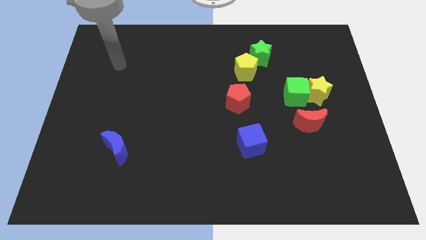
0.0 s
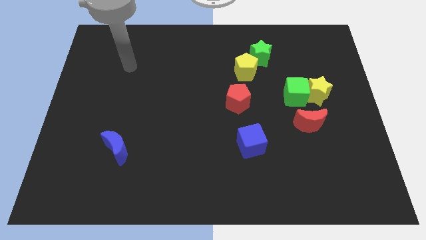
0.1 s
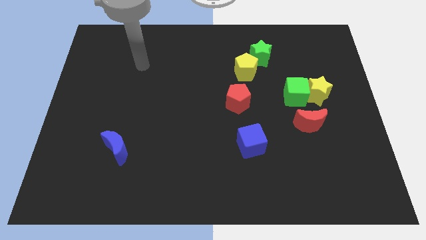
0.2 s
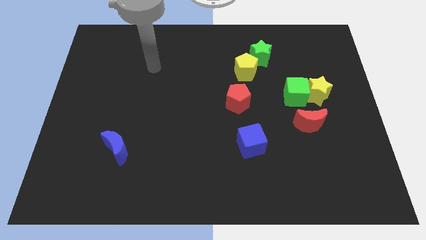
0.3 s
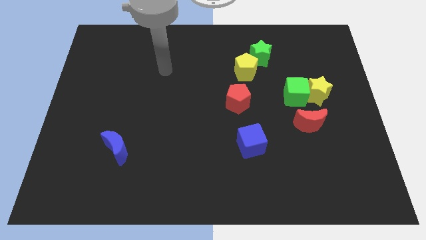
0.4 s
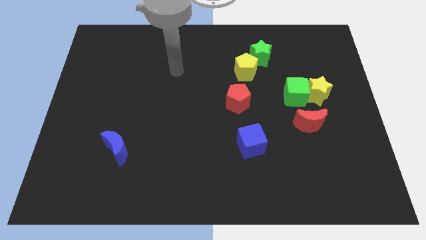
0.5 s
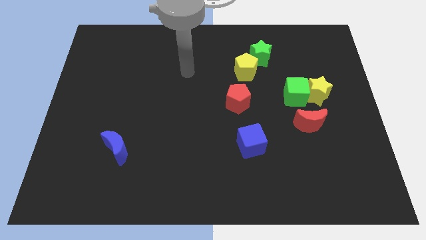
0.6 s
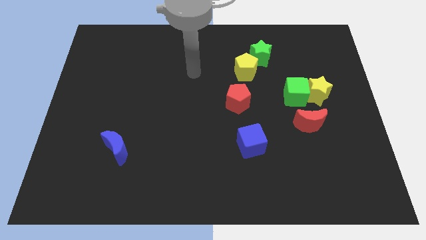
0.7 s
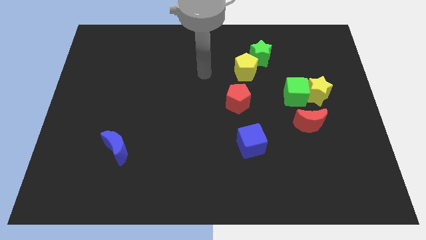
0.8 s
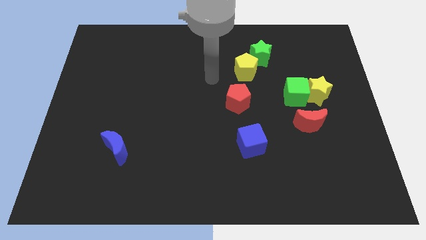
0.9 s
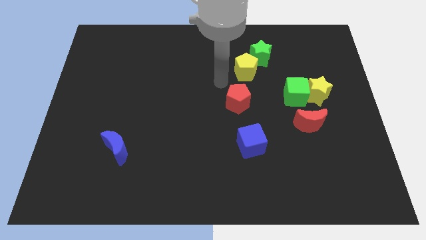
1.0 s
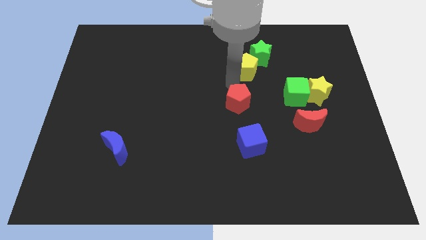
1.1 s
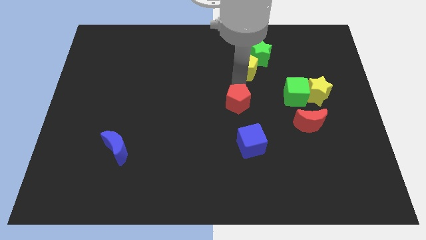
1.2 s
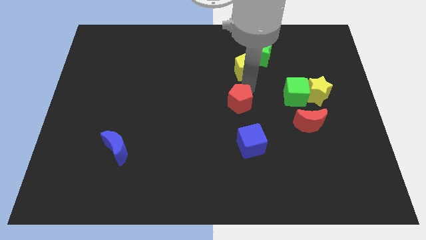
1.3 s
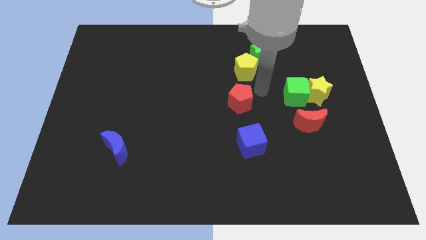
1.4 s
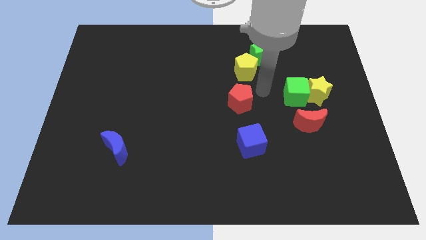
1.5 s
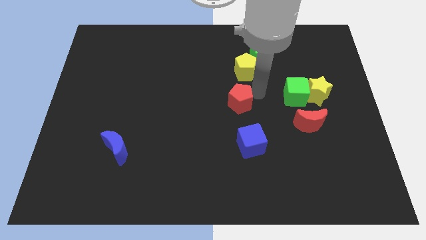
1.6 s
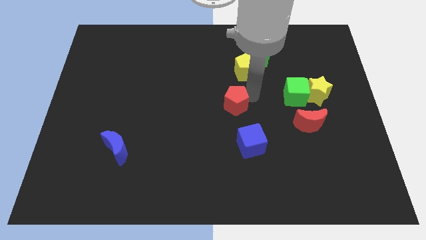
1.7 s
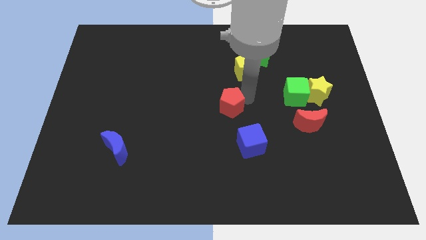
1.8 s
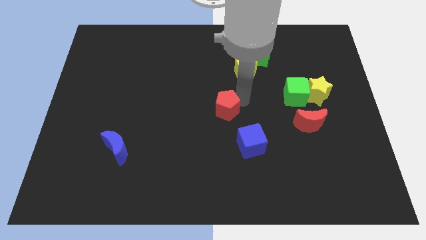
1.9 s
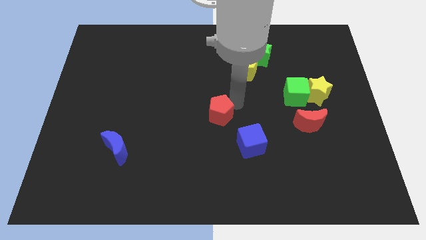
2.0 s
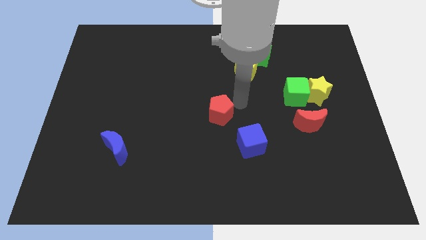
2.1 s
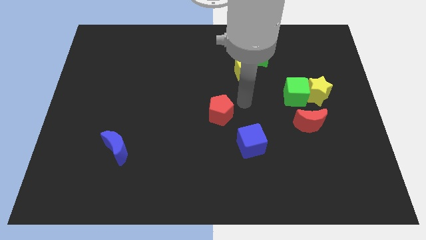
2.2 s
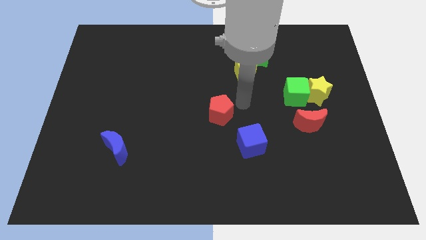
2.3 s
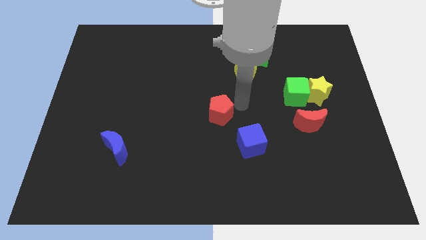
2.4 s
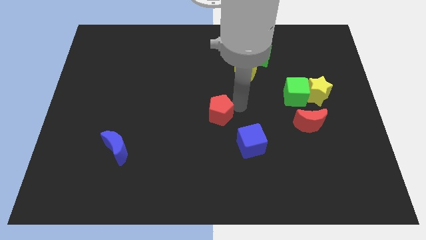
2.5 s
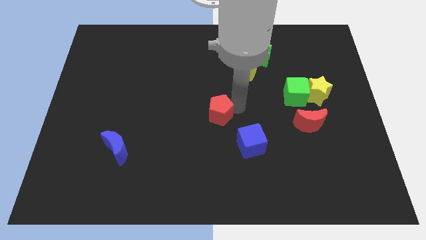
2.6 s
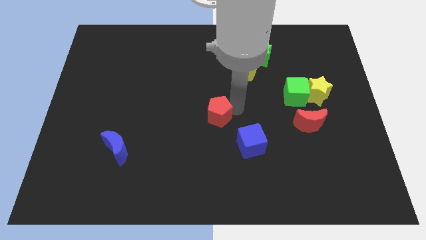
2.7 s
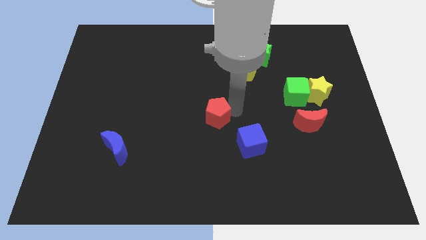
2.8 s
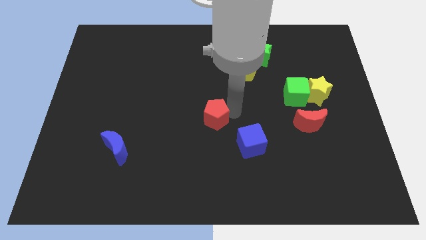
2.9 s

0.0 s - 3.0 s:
move the red pentagon a bit down and left diagonally

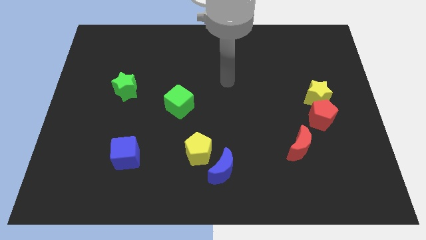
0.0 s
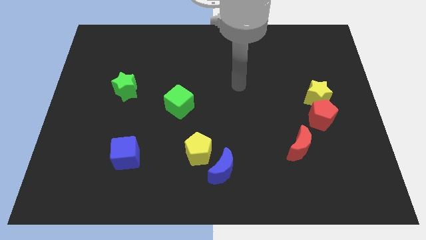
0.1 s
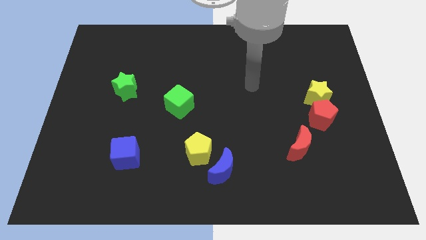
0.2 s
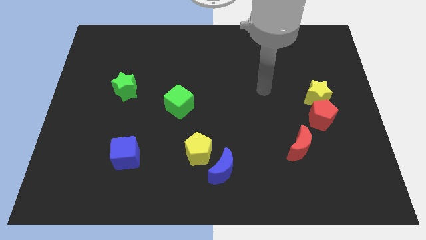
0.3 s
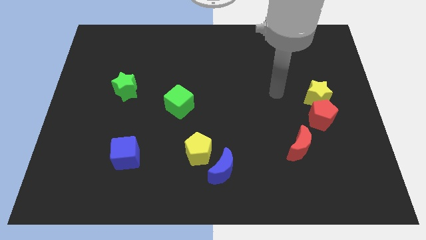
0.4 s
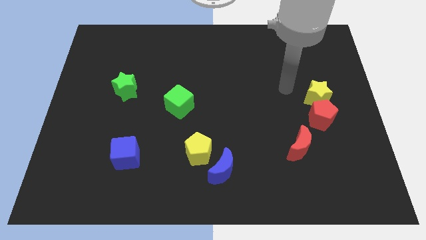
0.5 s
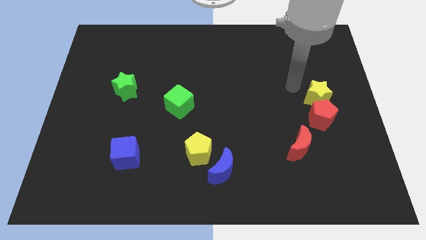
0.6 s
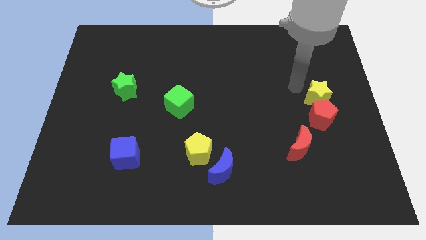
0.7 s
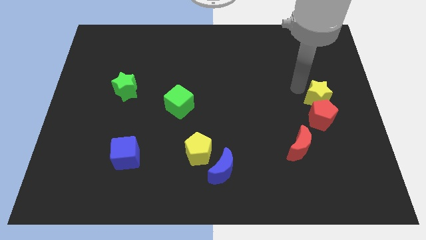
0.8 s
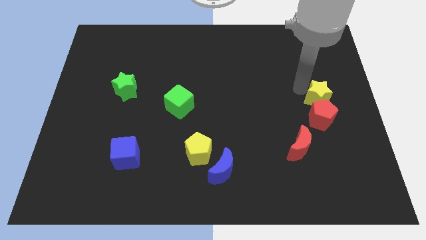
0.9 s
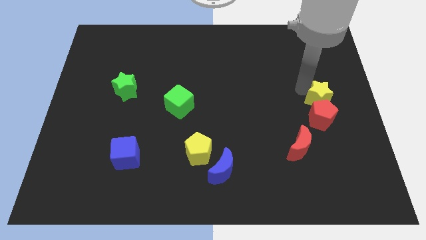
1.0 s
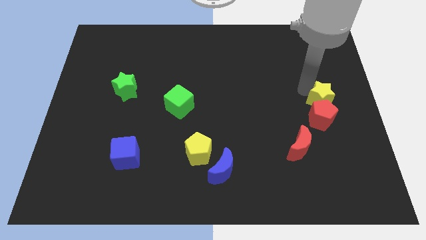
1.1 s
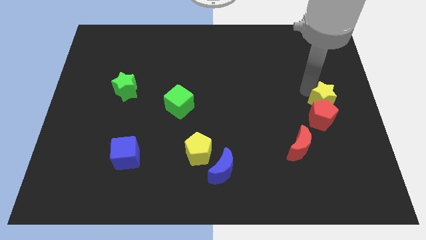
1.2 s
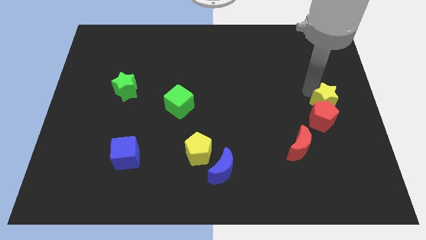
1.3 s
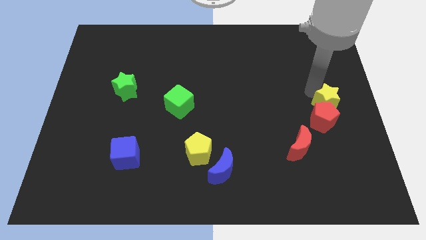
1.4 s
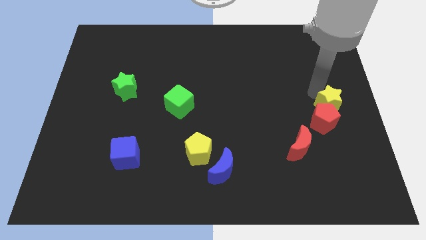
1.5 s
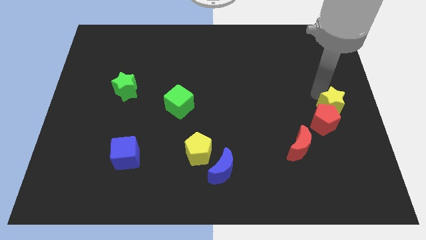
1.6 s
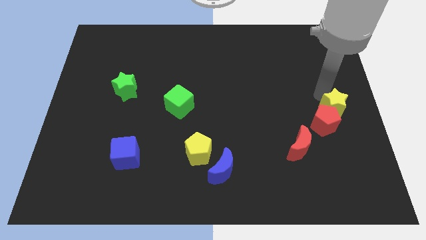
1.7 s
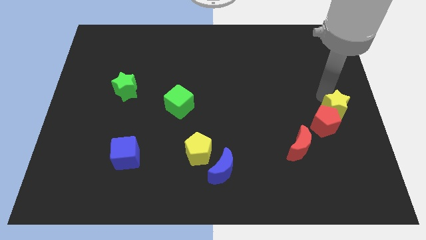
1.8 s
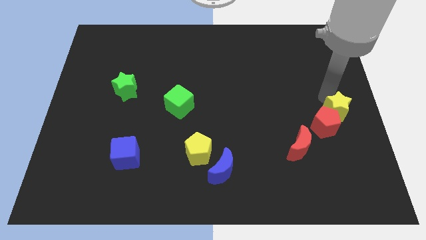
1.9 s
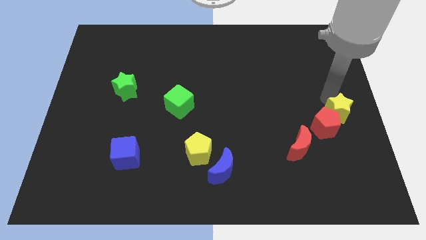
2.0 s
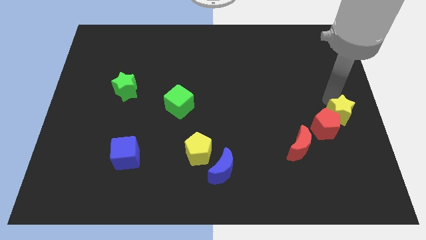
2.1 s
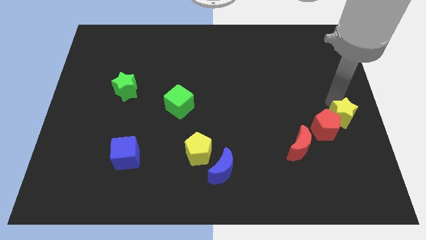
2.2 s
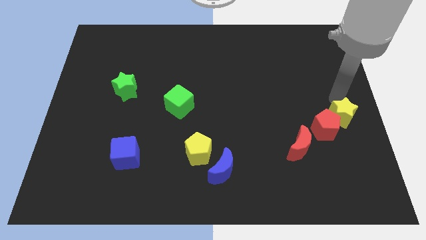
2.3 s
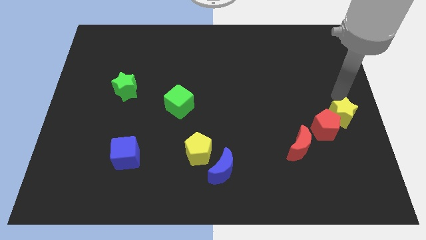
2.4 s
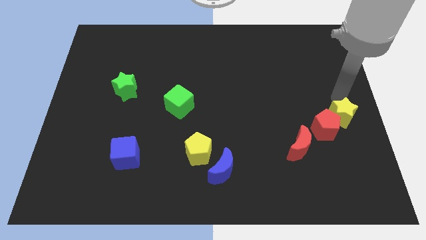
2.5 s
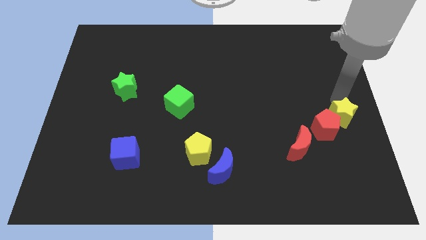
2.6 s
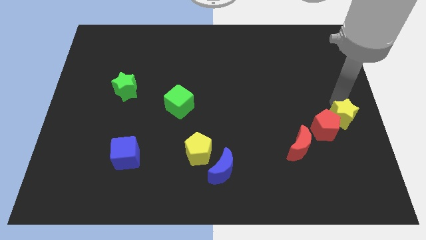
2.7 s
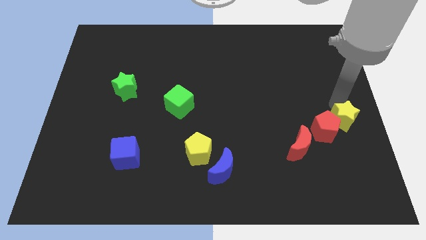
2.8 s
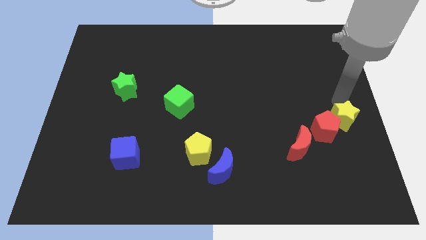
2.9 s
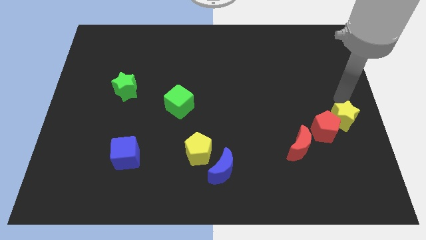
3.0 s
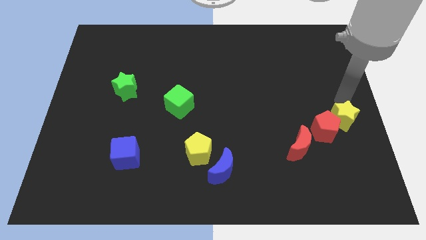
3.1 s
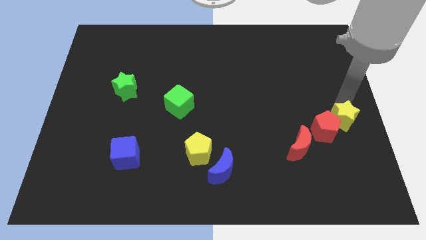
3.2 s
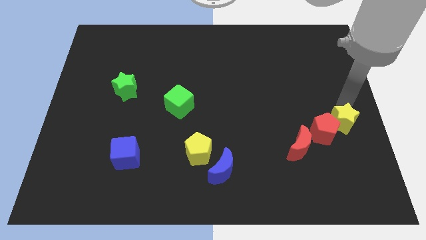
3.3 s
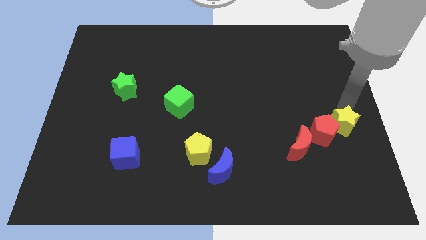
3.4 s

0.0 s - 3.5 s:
slide the yellow star a little bit down

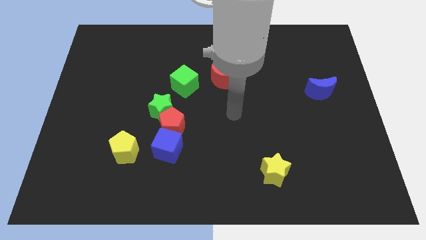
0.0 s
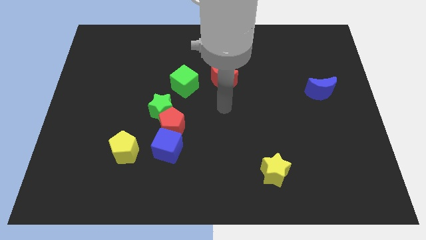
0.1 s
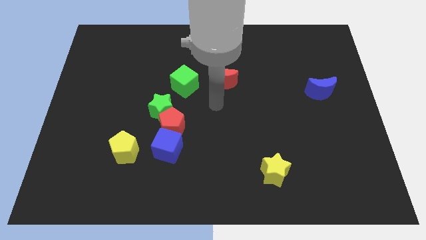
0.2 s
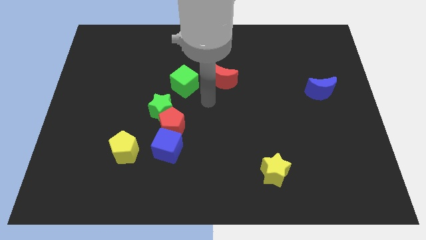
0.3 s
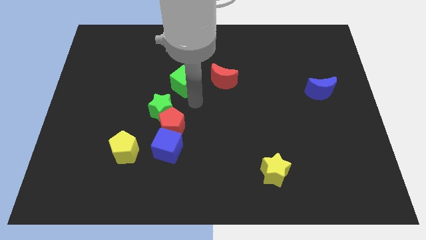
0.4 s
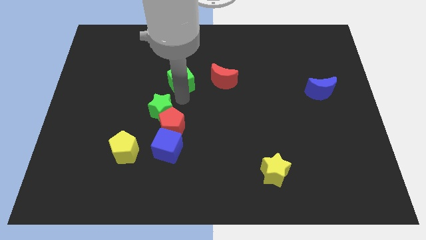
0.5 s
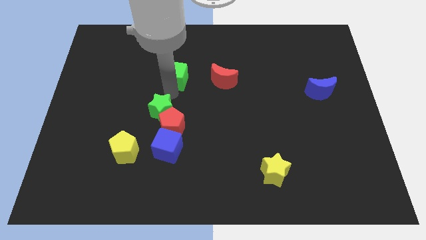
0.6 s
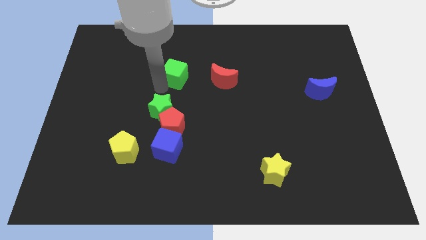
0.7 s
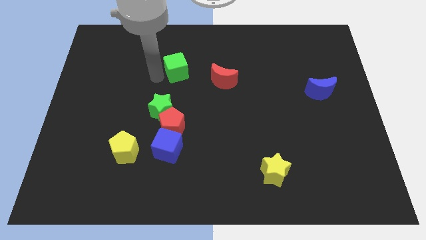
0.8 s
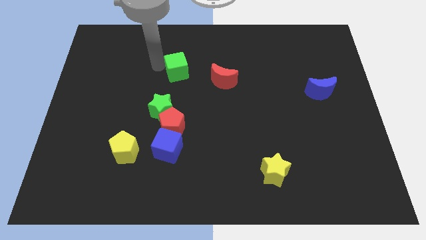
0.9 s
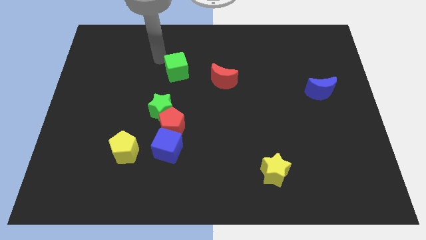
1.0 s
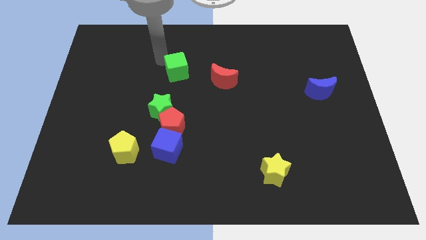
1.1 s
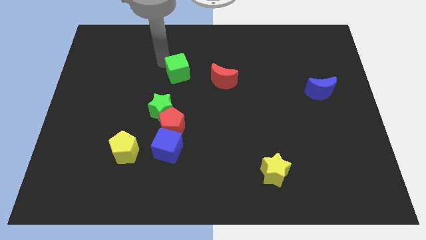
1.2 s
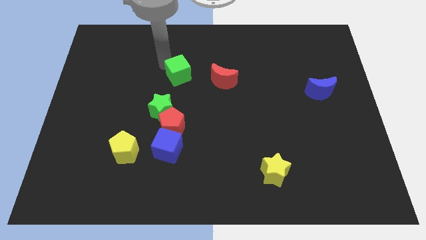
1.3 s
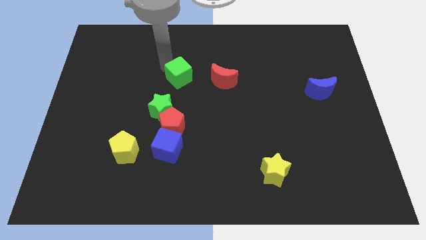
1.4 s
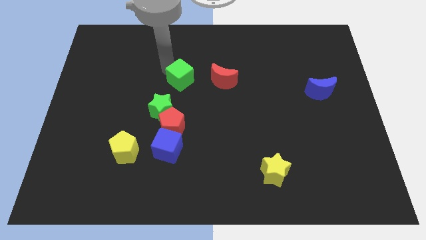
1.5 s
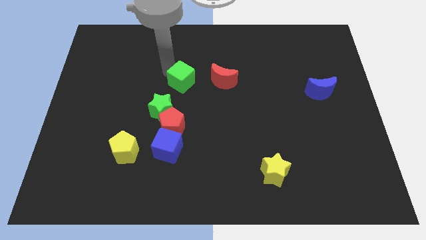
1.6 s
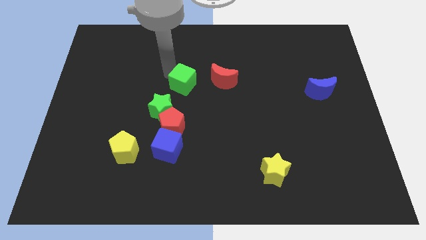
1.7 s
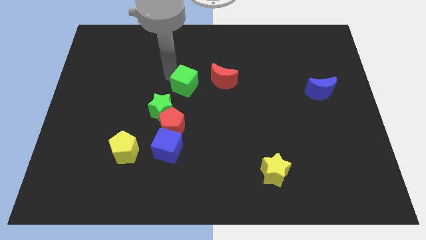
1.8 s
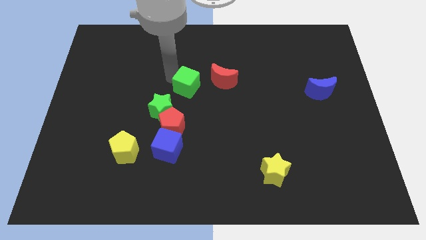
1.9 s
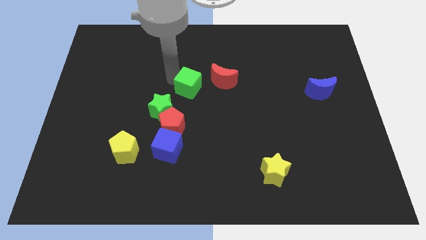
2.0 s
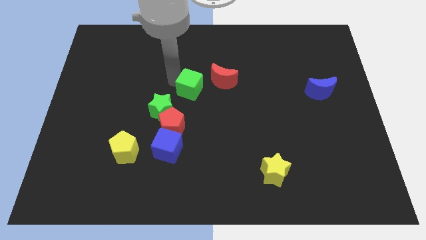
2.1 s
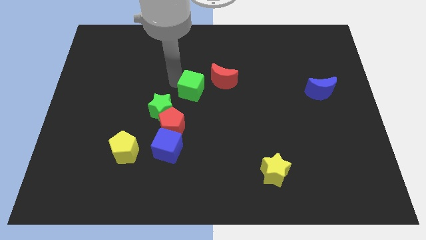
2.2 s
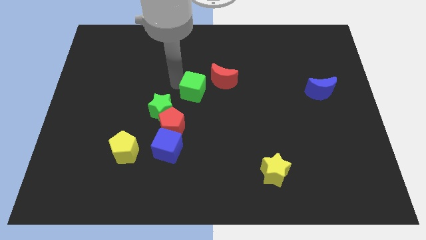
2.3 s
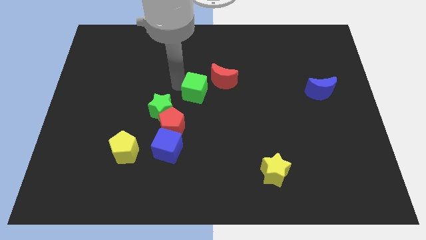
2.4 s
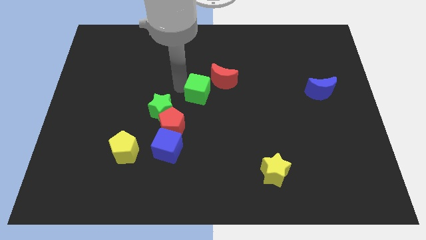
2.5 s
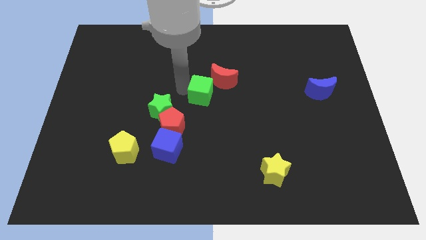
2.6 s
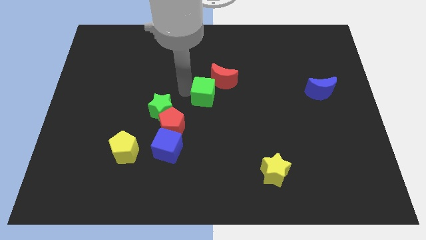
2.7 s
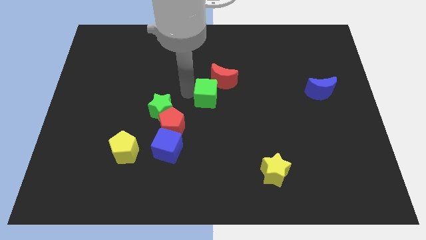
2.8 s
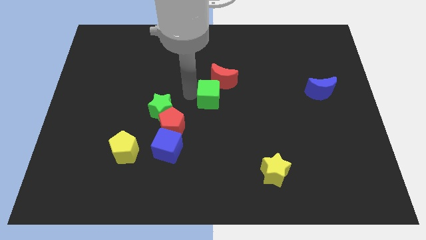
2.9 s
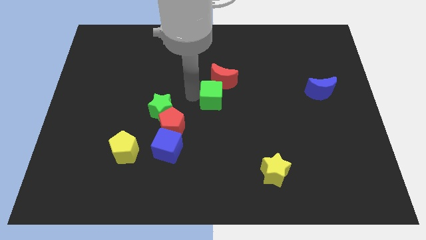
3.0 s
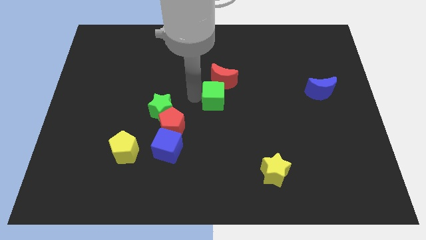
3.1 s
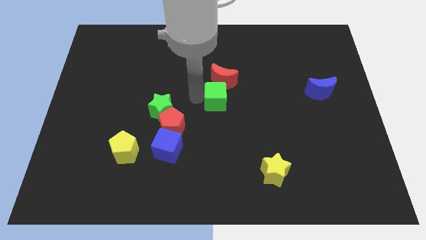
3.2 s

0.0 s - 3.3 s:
slightly move the green cube right
